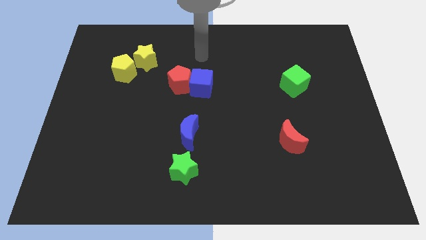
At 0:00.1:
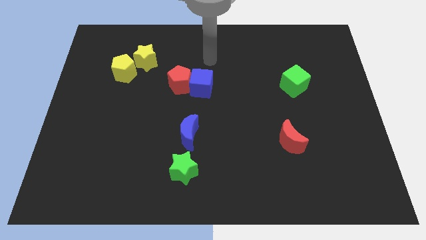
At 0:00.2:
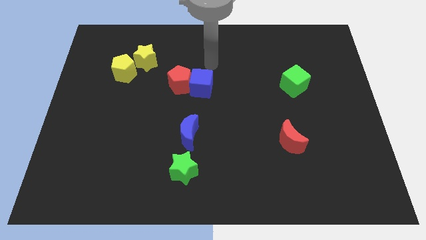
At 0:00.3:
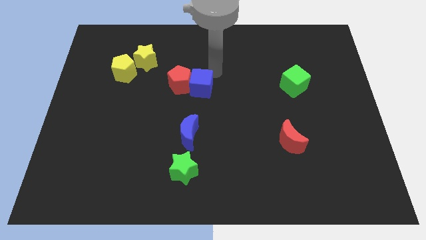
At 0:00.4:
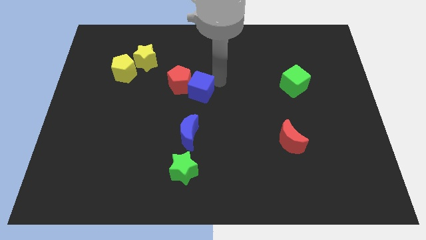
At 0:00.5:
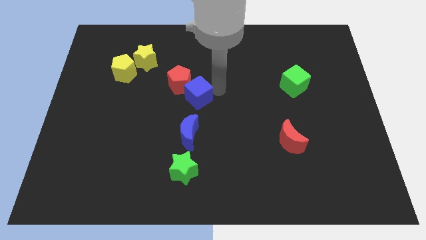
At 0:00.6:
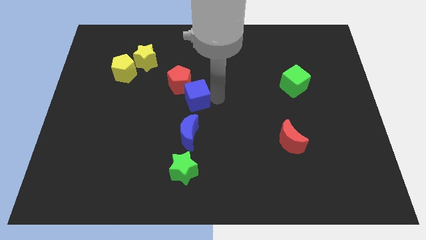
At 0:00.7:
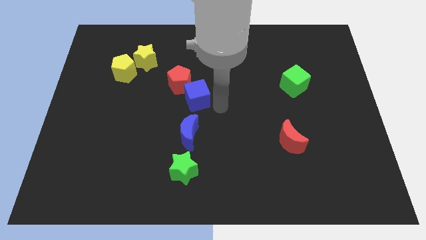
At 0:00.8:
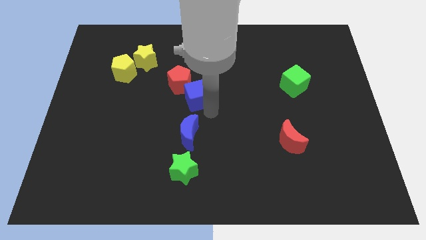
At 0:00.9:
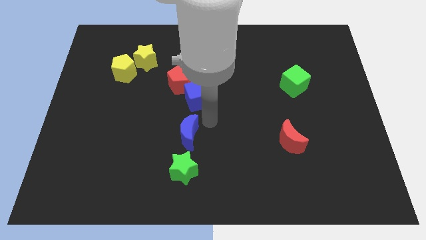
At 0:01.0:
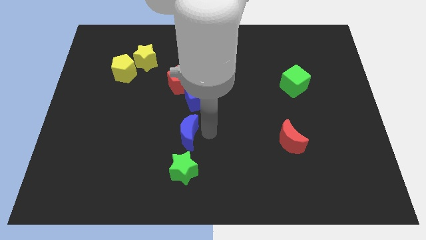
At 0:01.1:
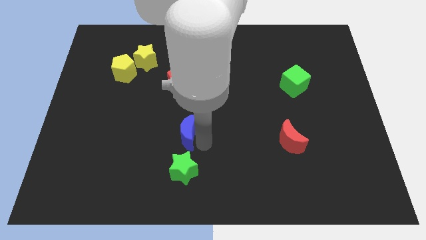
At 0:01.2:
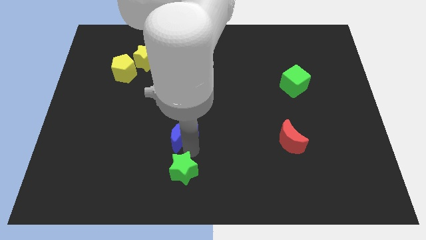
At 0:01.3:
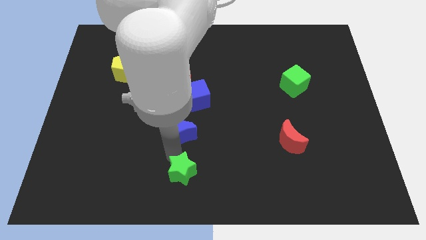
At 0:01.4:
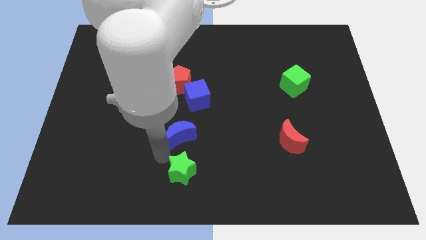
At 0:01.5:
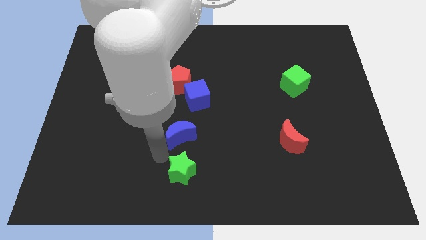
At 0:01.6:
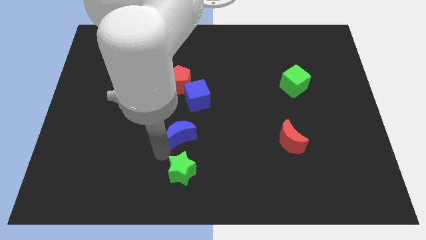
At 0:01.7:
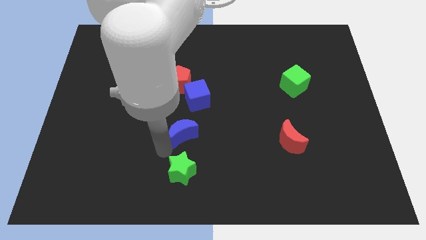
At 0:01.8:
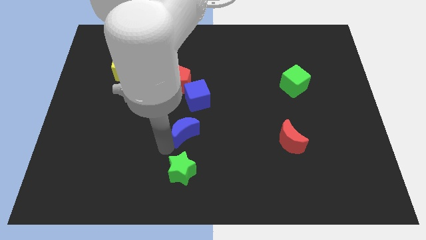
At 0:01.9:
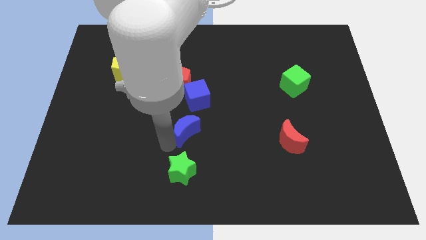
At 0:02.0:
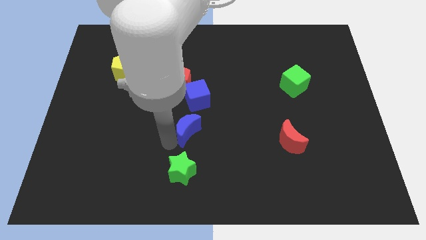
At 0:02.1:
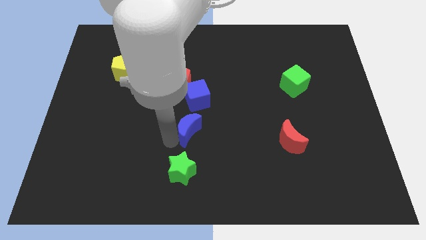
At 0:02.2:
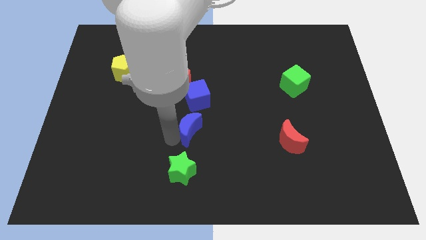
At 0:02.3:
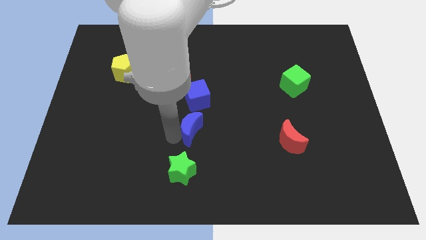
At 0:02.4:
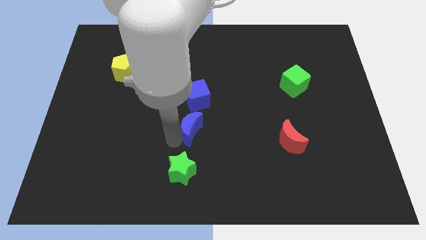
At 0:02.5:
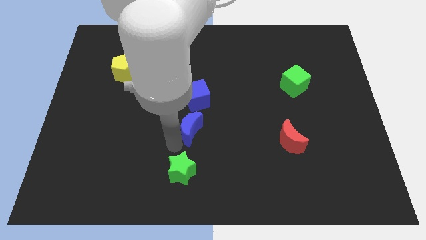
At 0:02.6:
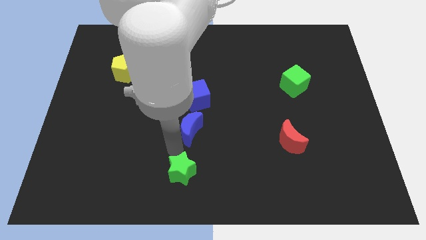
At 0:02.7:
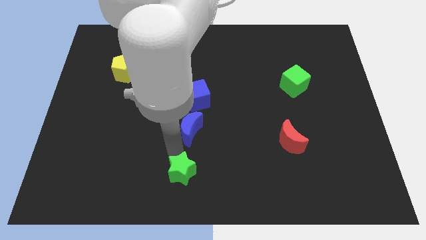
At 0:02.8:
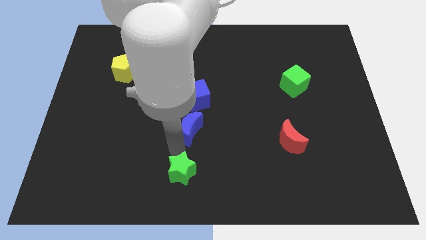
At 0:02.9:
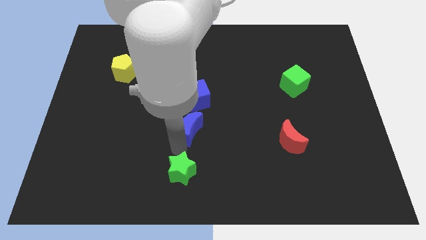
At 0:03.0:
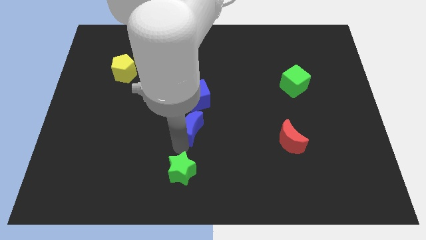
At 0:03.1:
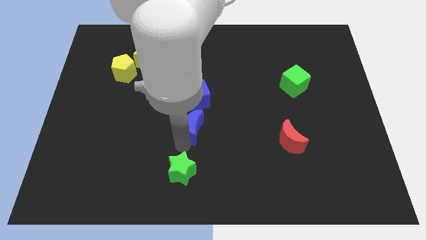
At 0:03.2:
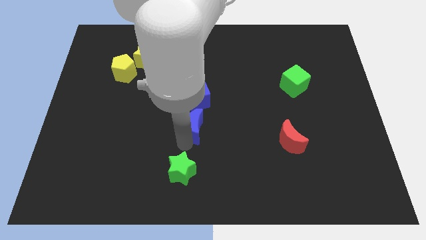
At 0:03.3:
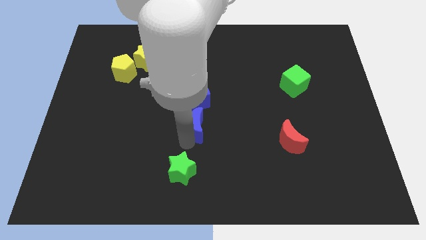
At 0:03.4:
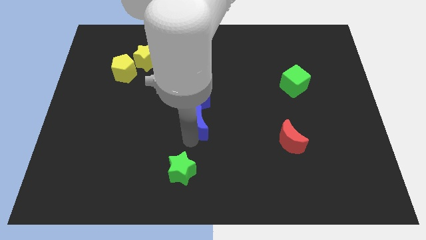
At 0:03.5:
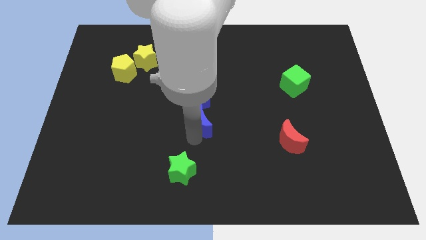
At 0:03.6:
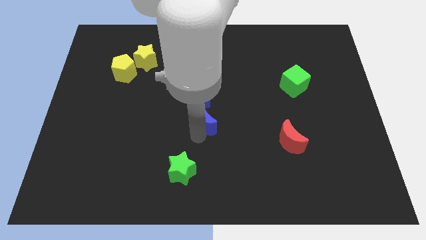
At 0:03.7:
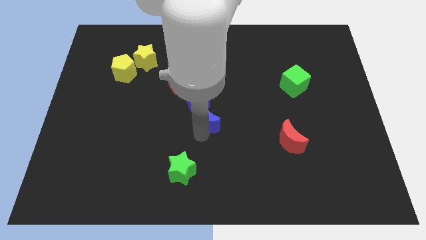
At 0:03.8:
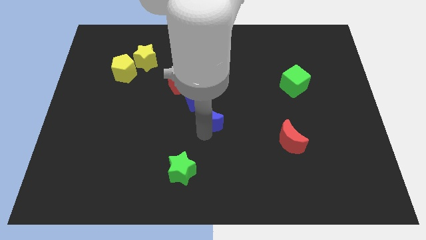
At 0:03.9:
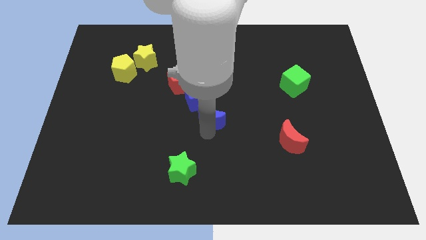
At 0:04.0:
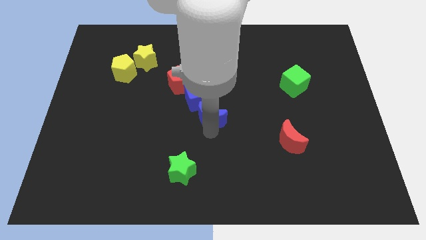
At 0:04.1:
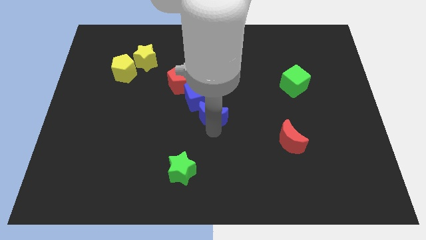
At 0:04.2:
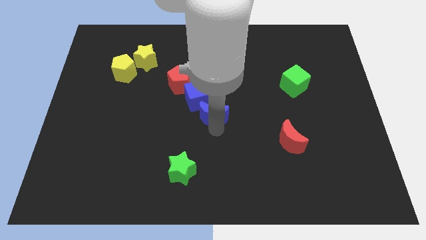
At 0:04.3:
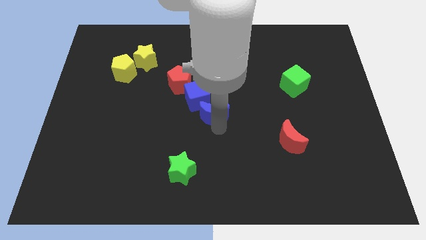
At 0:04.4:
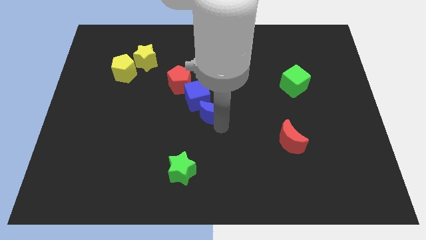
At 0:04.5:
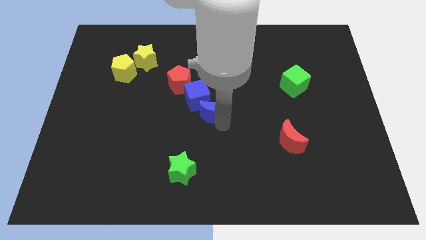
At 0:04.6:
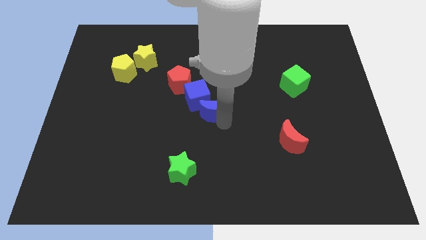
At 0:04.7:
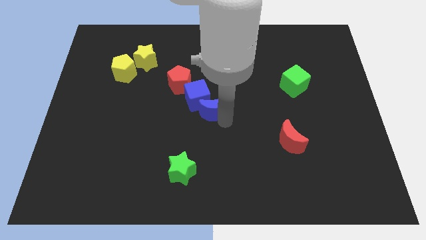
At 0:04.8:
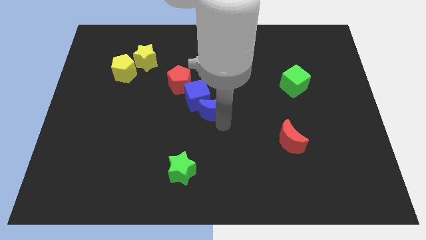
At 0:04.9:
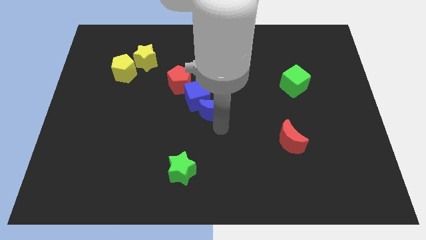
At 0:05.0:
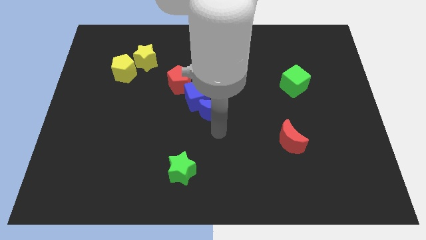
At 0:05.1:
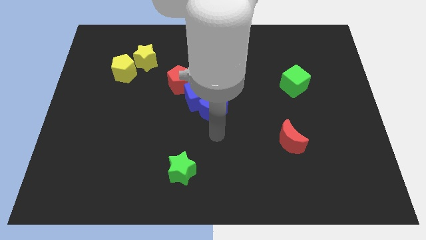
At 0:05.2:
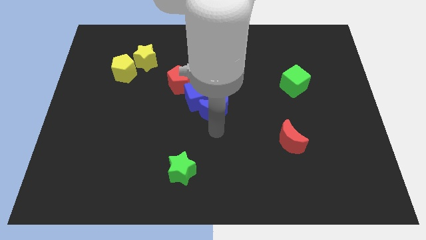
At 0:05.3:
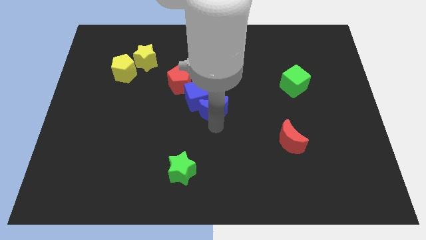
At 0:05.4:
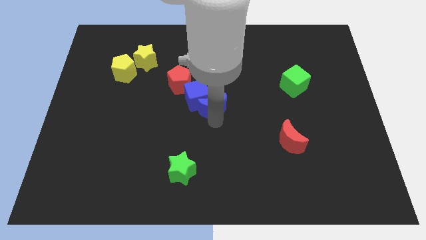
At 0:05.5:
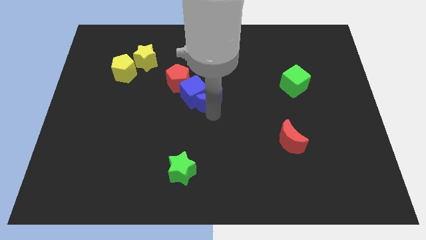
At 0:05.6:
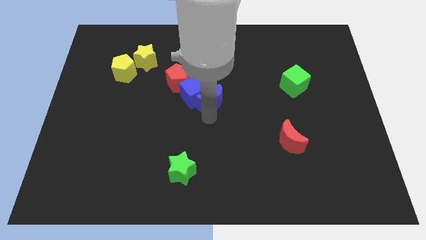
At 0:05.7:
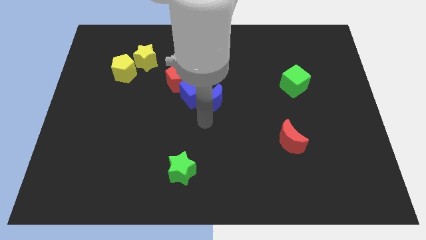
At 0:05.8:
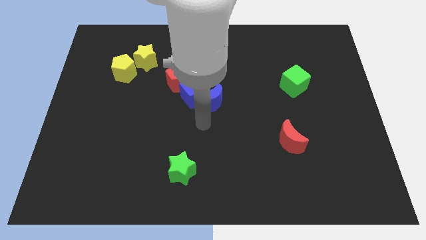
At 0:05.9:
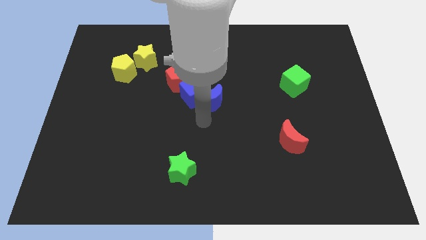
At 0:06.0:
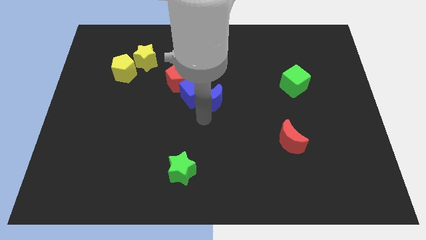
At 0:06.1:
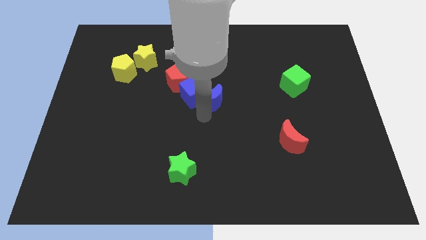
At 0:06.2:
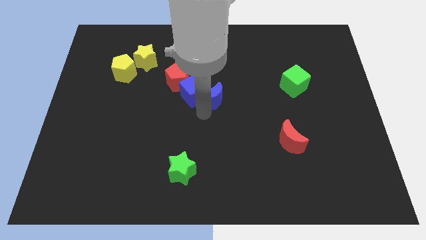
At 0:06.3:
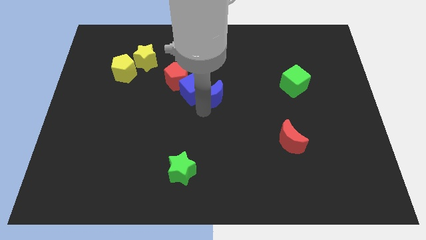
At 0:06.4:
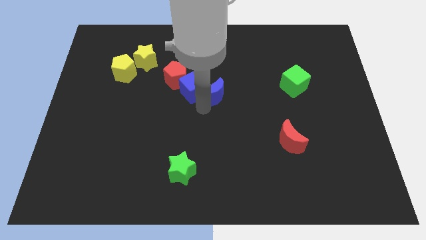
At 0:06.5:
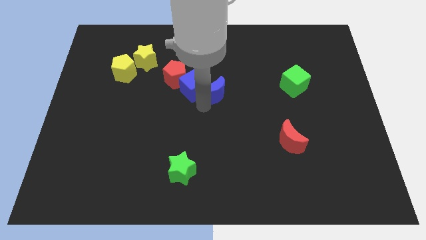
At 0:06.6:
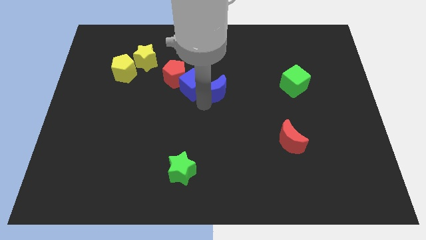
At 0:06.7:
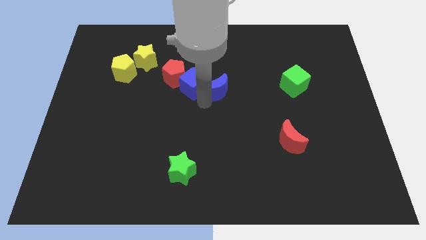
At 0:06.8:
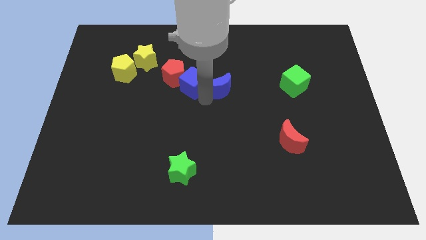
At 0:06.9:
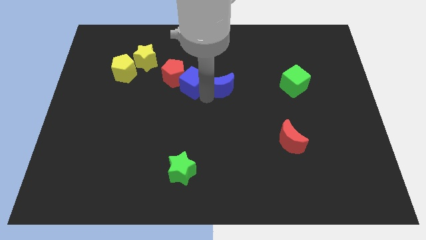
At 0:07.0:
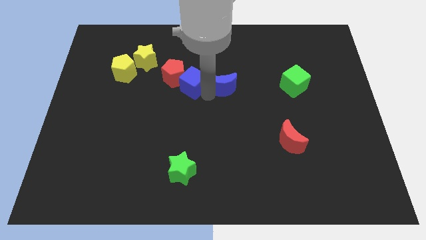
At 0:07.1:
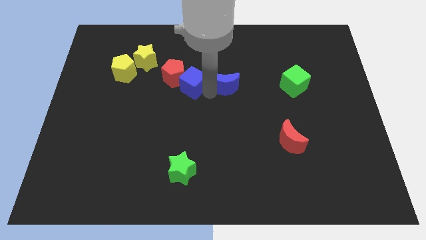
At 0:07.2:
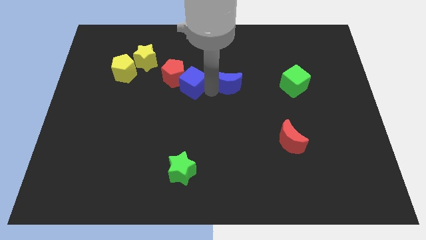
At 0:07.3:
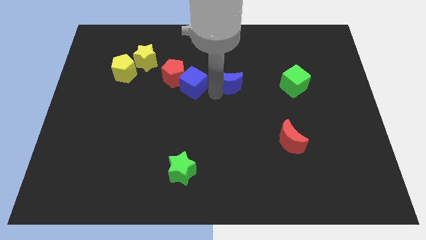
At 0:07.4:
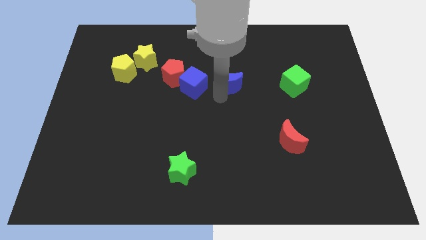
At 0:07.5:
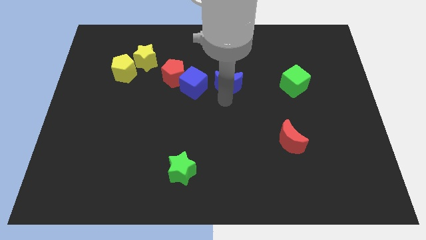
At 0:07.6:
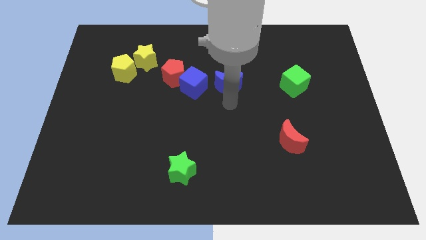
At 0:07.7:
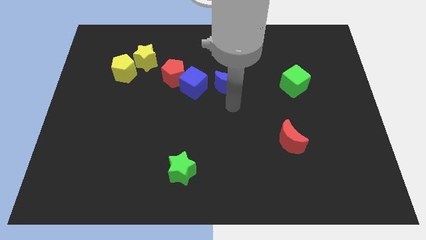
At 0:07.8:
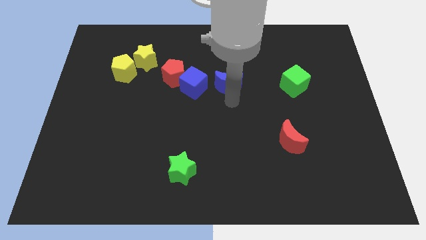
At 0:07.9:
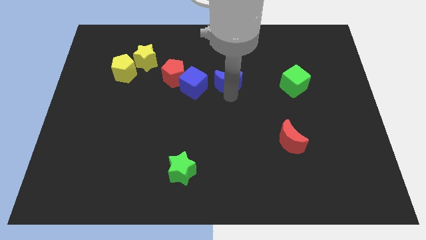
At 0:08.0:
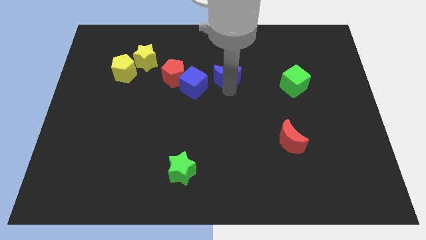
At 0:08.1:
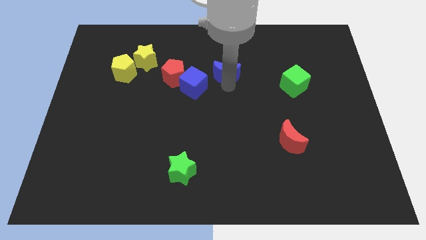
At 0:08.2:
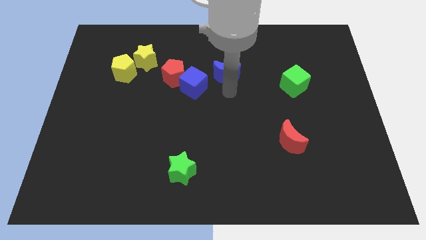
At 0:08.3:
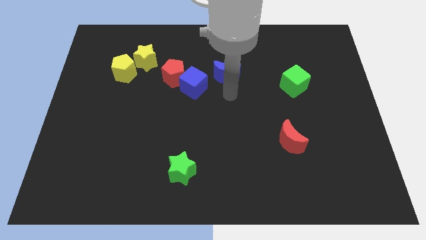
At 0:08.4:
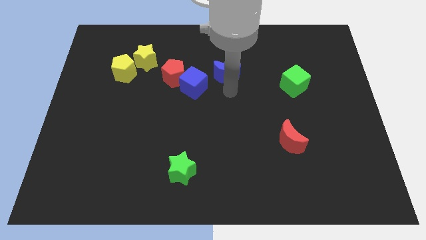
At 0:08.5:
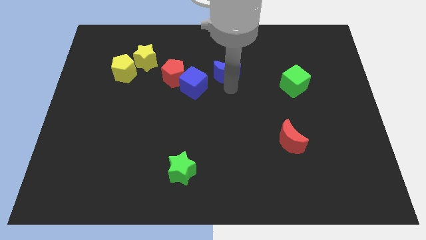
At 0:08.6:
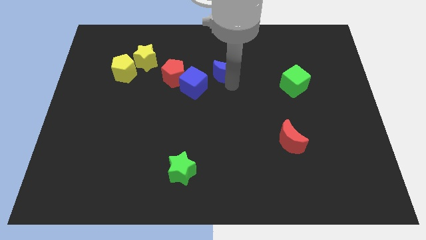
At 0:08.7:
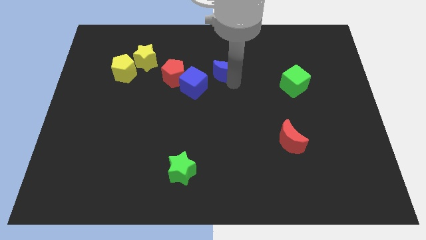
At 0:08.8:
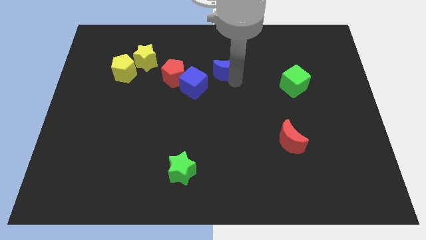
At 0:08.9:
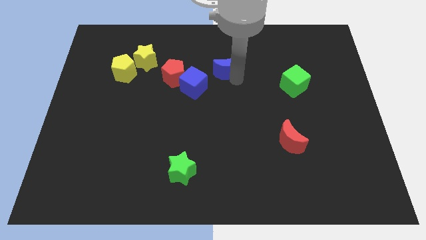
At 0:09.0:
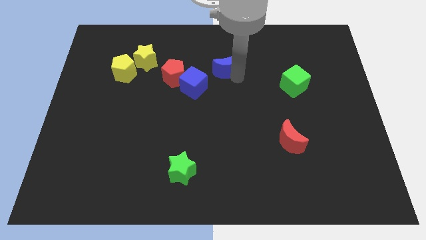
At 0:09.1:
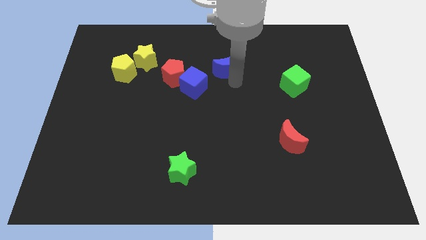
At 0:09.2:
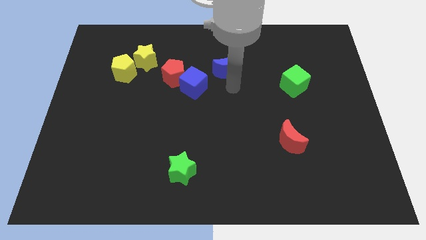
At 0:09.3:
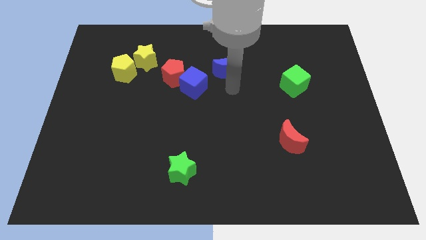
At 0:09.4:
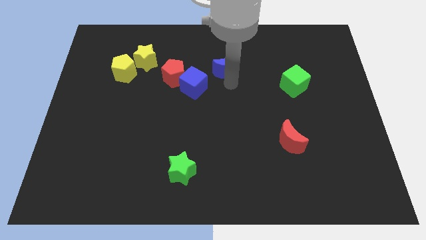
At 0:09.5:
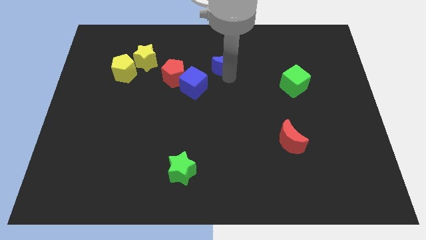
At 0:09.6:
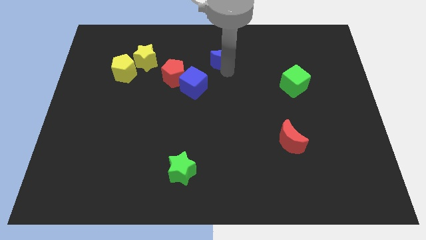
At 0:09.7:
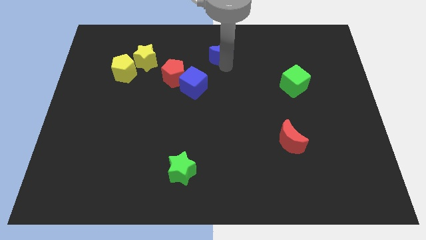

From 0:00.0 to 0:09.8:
slide the blue moon to the towards your base
